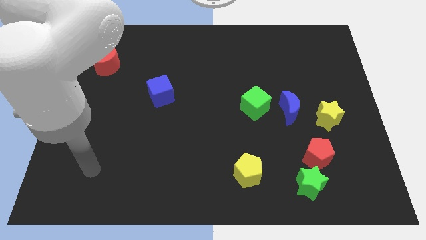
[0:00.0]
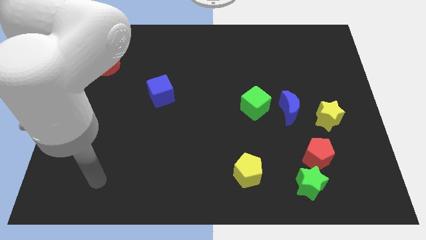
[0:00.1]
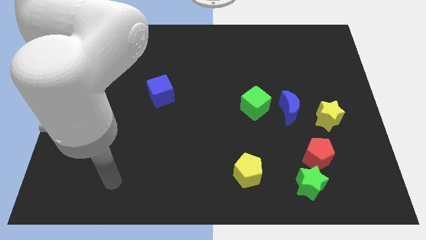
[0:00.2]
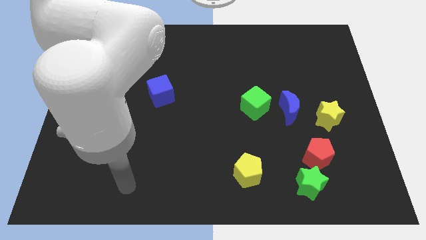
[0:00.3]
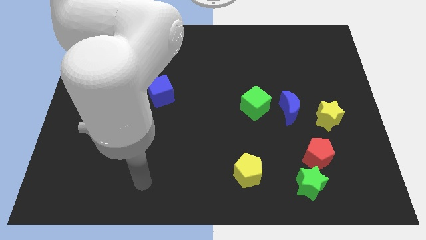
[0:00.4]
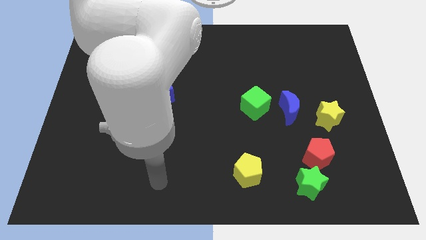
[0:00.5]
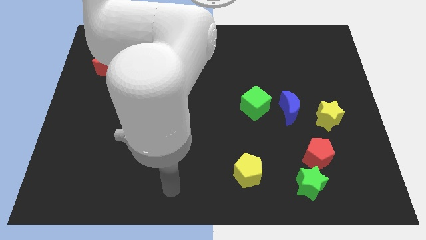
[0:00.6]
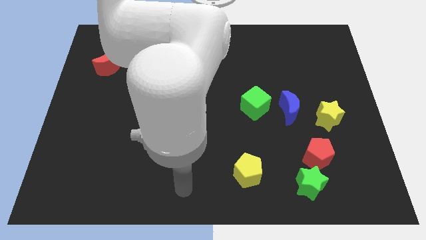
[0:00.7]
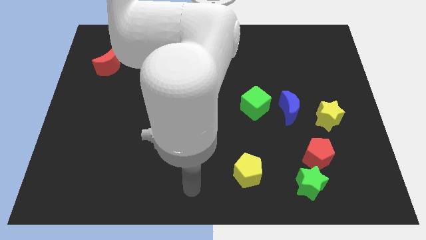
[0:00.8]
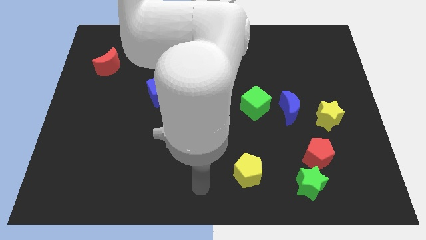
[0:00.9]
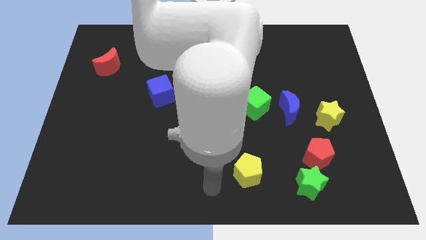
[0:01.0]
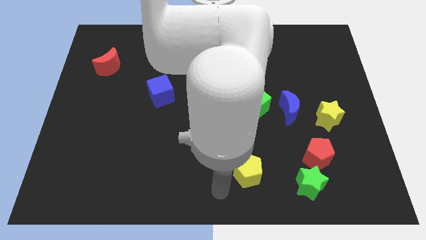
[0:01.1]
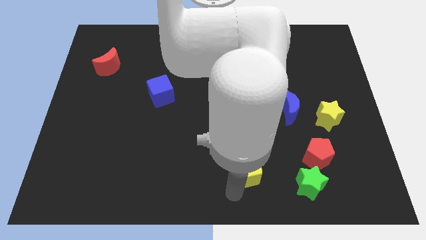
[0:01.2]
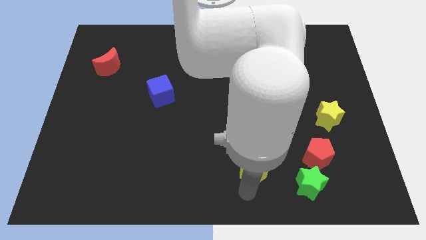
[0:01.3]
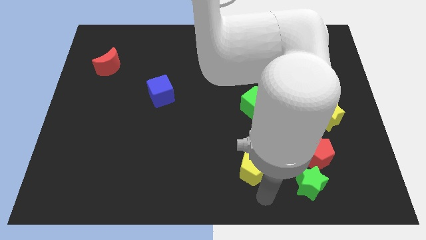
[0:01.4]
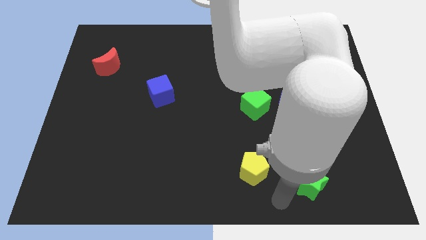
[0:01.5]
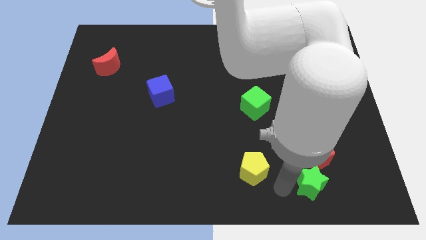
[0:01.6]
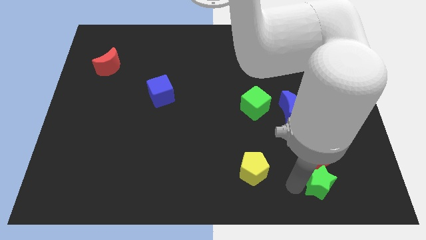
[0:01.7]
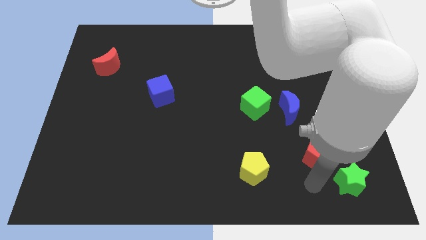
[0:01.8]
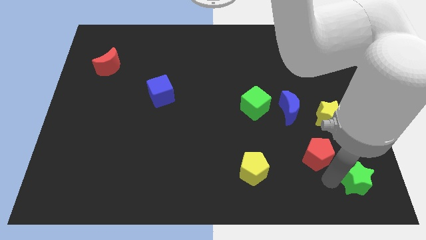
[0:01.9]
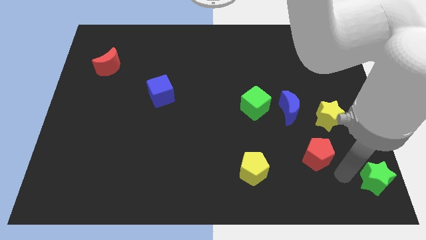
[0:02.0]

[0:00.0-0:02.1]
pull the red pentagon apart from the green star

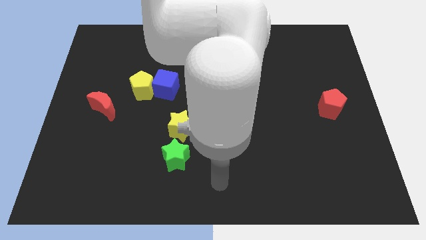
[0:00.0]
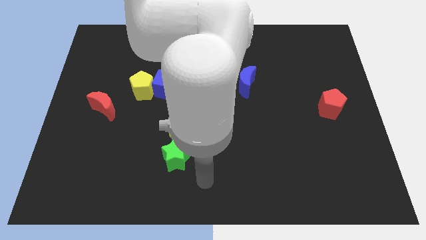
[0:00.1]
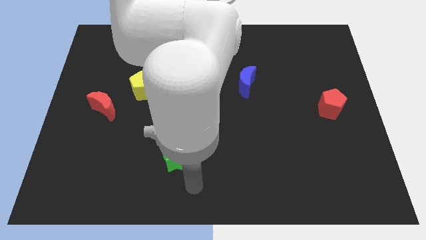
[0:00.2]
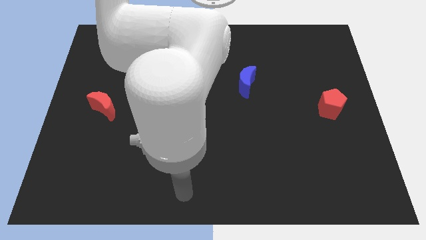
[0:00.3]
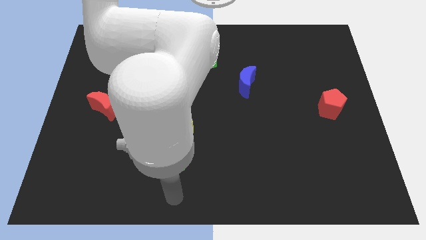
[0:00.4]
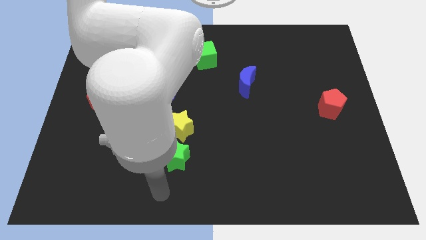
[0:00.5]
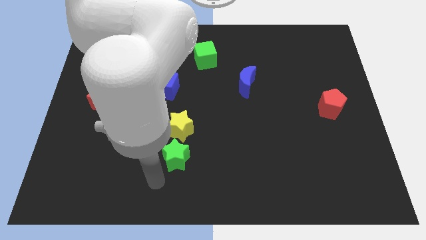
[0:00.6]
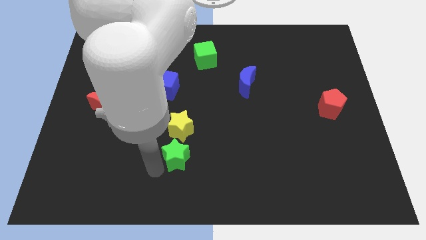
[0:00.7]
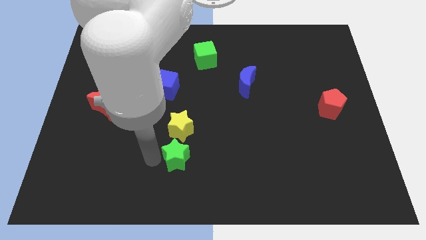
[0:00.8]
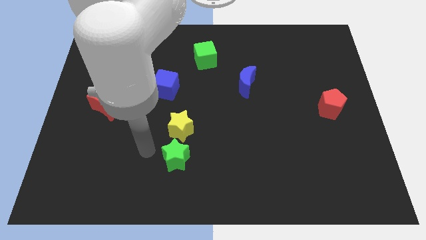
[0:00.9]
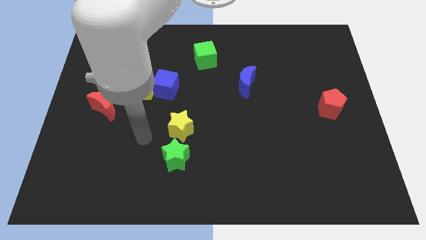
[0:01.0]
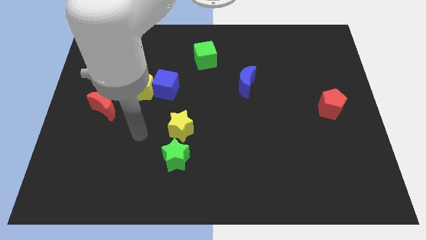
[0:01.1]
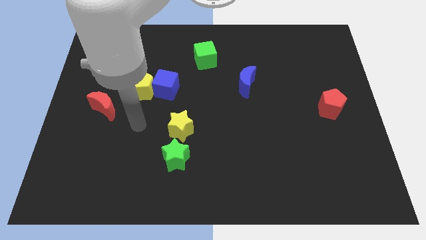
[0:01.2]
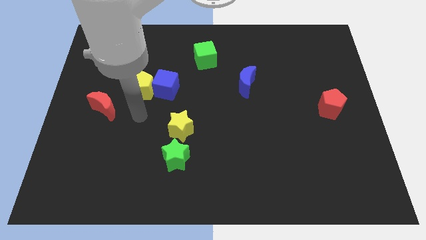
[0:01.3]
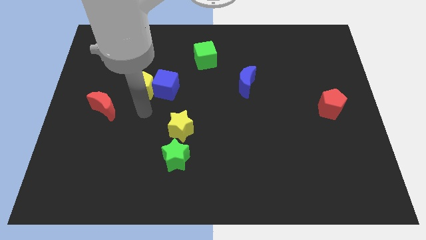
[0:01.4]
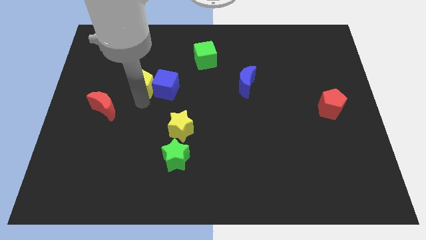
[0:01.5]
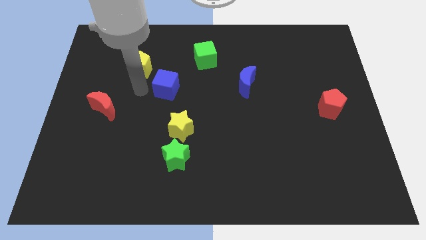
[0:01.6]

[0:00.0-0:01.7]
separate the blue cube from the yellow pentagon

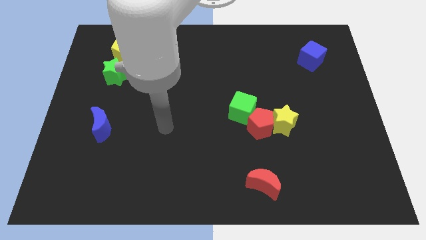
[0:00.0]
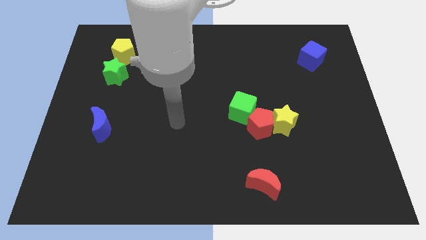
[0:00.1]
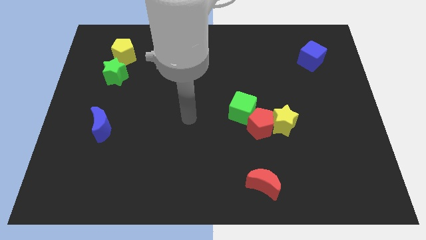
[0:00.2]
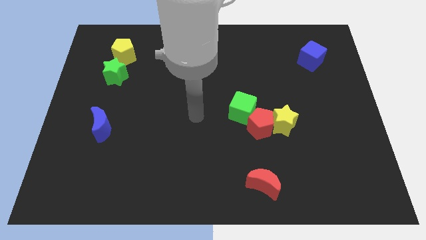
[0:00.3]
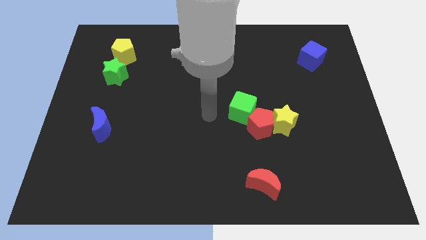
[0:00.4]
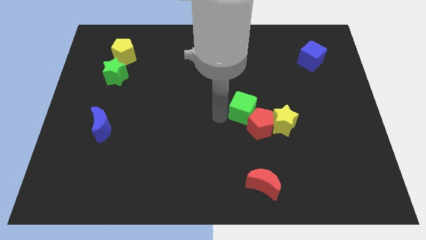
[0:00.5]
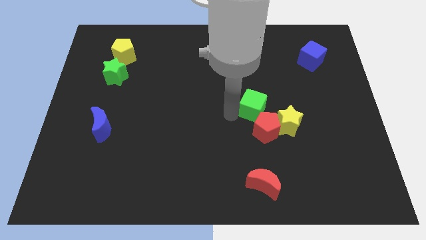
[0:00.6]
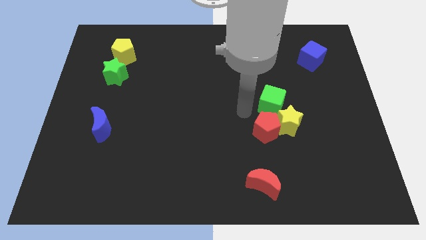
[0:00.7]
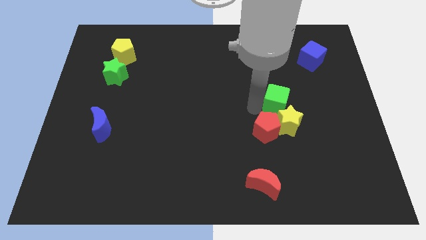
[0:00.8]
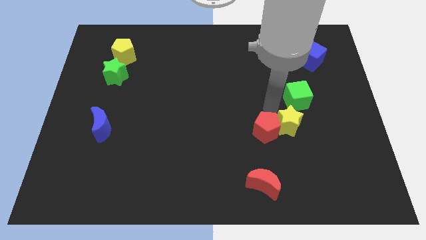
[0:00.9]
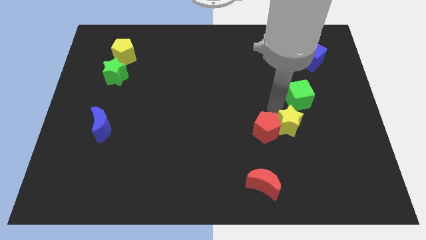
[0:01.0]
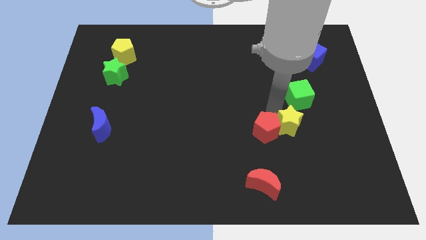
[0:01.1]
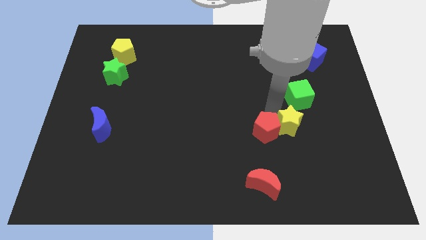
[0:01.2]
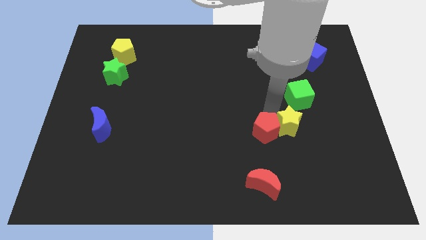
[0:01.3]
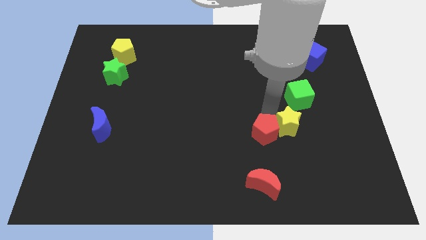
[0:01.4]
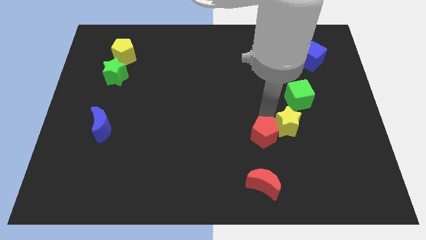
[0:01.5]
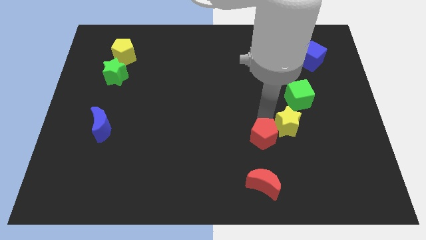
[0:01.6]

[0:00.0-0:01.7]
pull the red pentagon apart from the yellow star and green cube

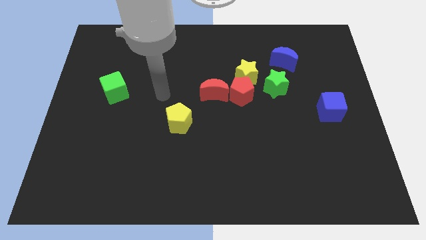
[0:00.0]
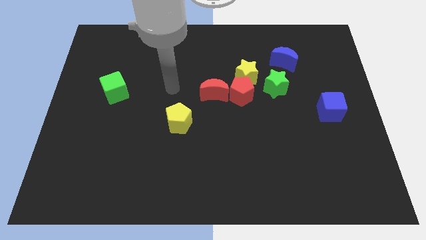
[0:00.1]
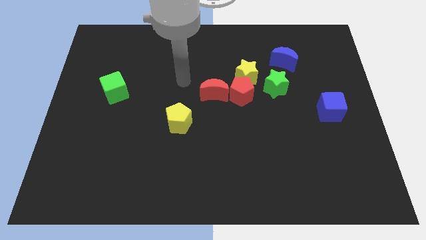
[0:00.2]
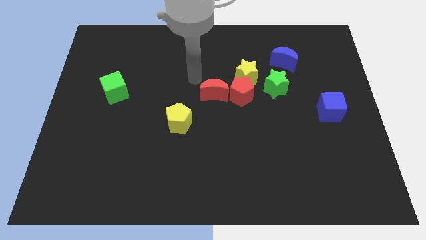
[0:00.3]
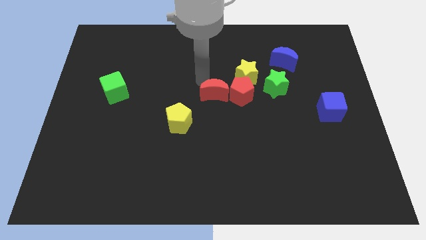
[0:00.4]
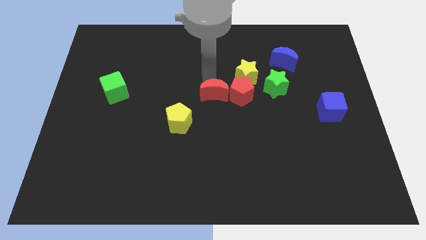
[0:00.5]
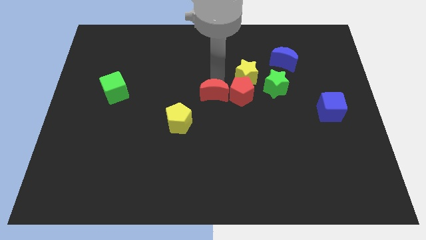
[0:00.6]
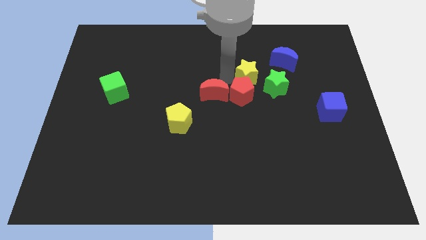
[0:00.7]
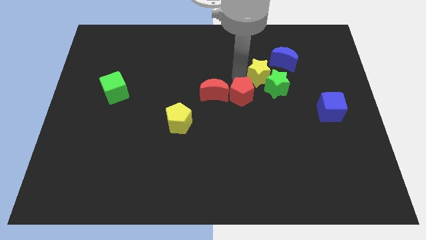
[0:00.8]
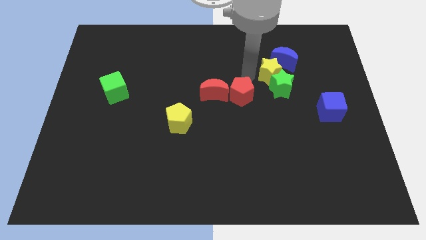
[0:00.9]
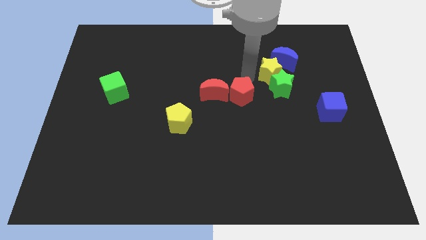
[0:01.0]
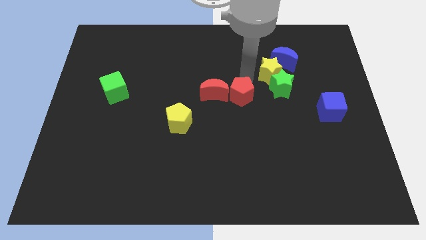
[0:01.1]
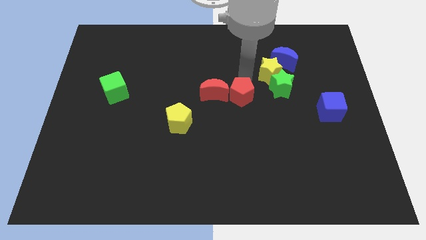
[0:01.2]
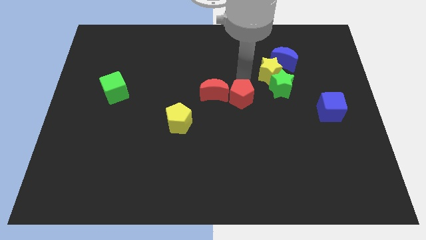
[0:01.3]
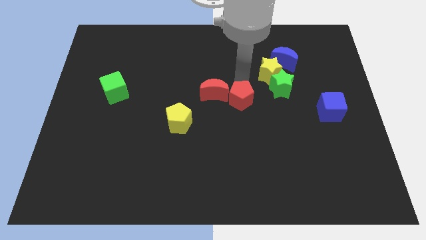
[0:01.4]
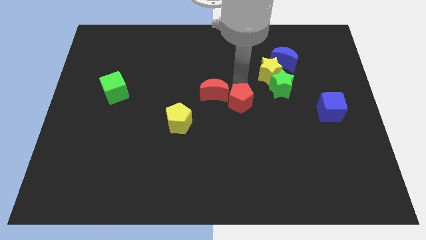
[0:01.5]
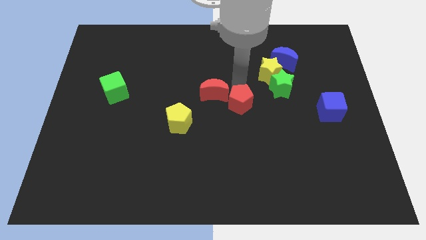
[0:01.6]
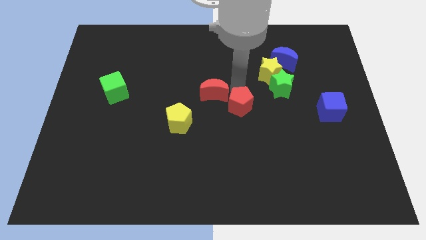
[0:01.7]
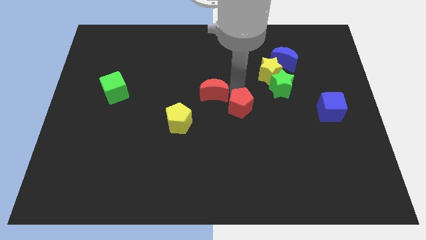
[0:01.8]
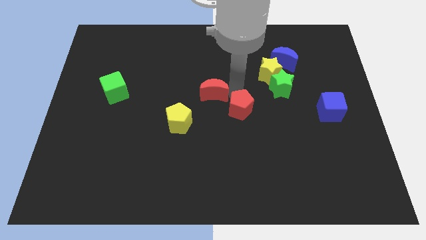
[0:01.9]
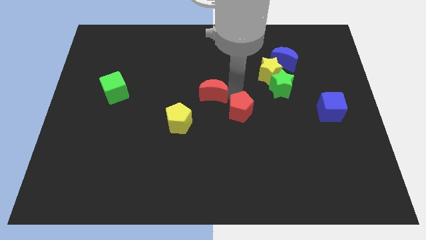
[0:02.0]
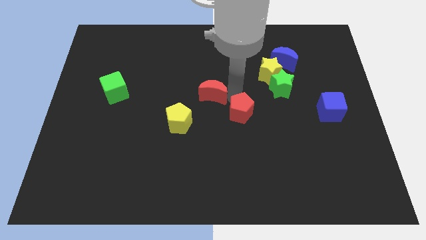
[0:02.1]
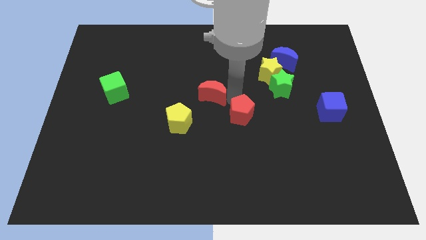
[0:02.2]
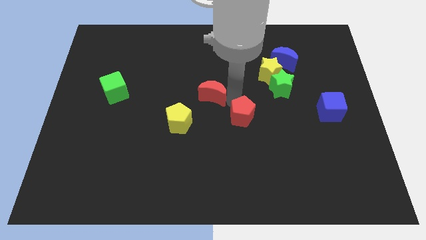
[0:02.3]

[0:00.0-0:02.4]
pull the red pentagon apart from the group of blocks

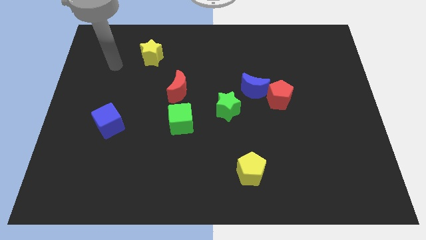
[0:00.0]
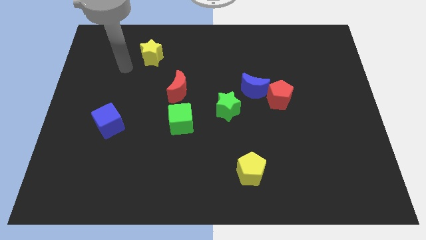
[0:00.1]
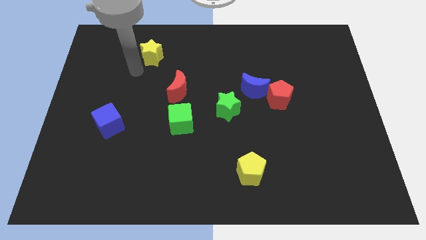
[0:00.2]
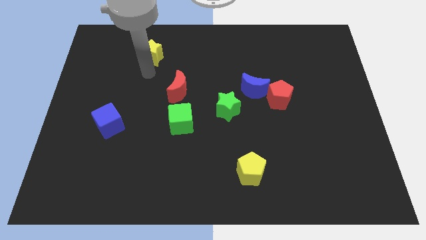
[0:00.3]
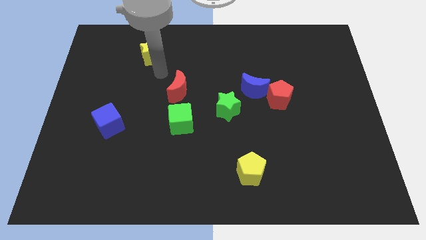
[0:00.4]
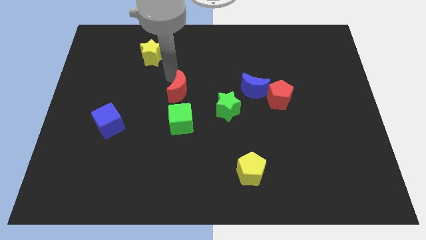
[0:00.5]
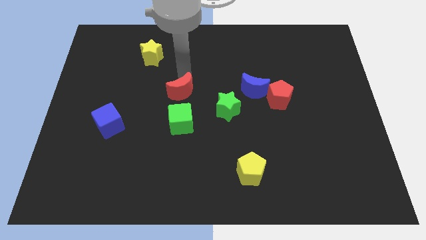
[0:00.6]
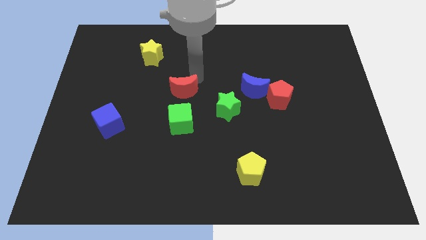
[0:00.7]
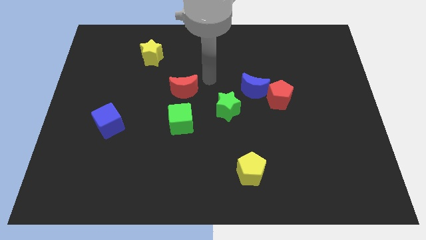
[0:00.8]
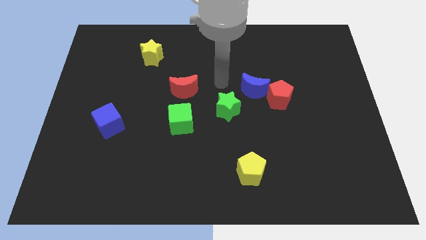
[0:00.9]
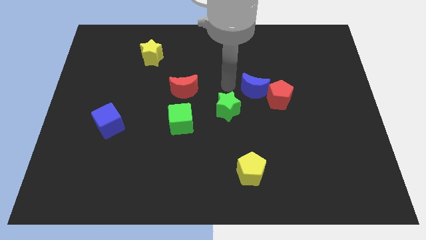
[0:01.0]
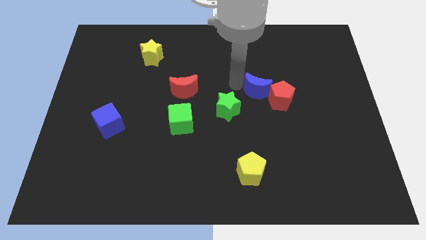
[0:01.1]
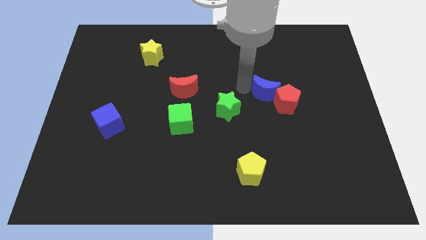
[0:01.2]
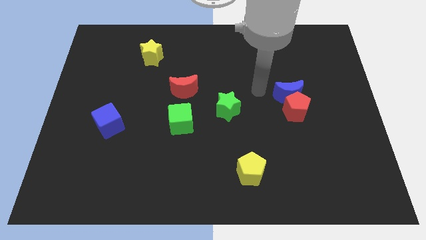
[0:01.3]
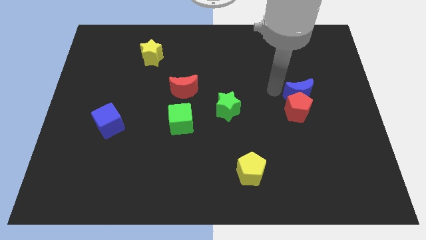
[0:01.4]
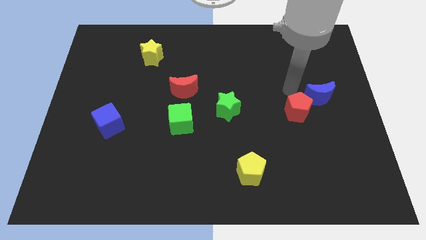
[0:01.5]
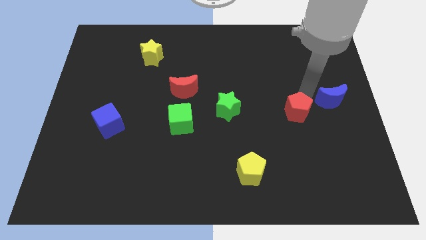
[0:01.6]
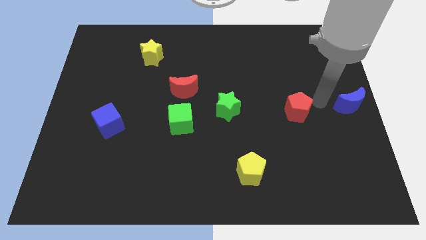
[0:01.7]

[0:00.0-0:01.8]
pull the red pentagon apart from the blue moon
